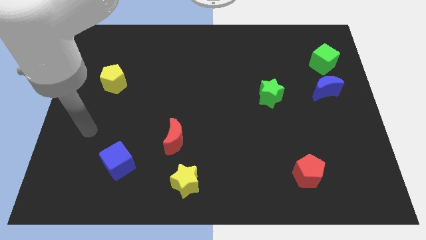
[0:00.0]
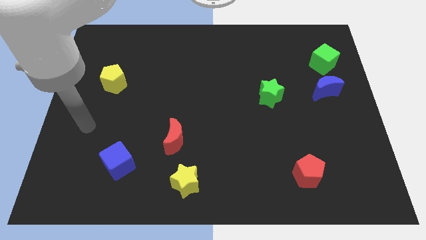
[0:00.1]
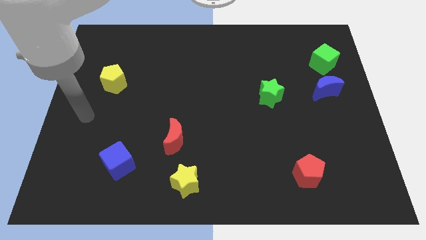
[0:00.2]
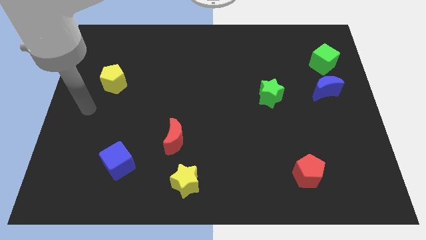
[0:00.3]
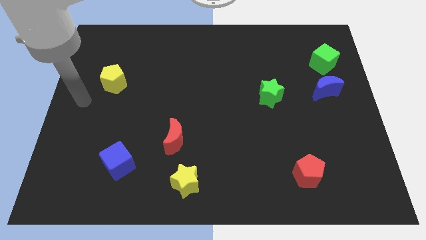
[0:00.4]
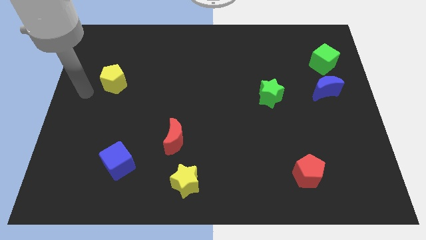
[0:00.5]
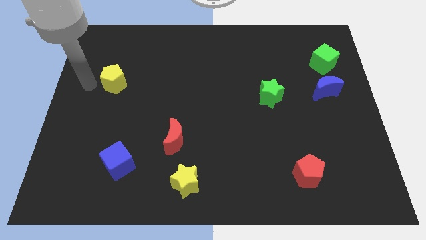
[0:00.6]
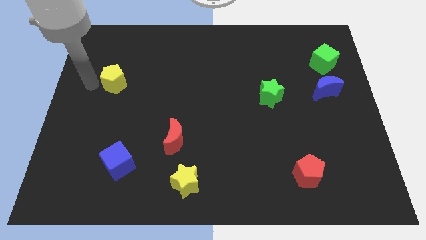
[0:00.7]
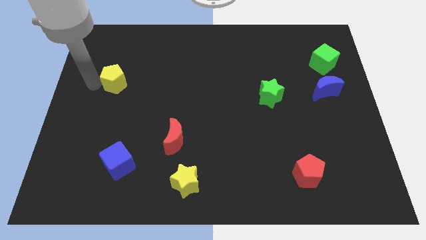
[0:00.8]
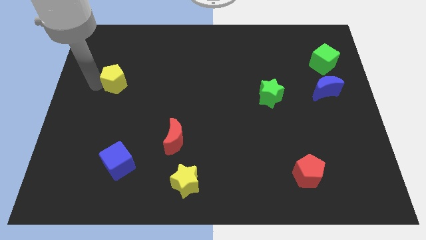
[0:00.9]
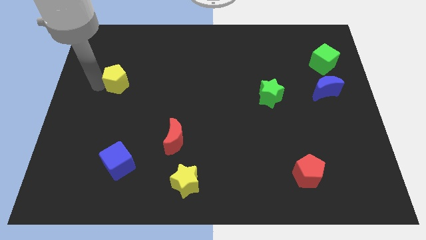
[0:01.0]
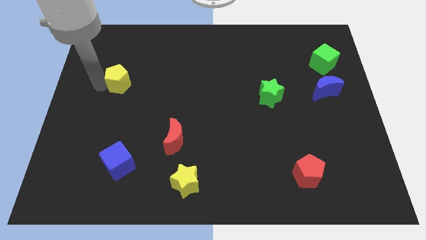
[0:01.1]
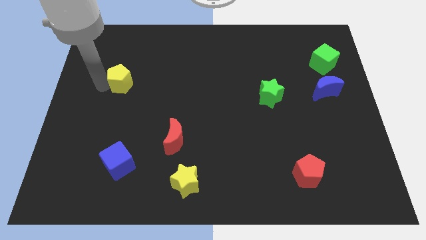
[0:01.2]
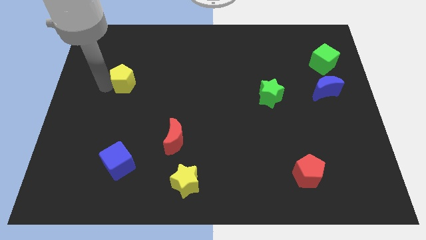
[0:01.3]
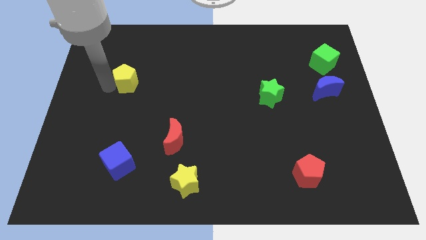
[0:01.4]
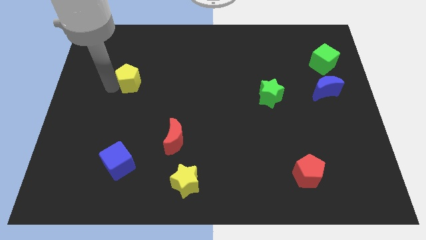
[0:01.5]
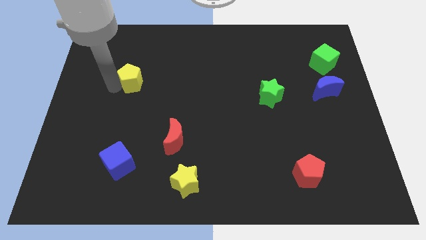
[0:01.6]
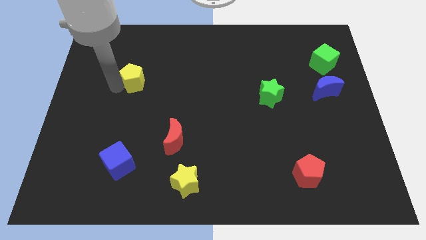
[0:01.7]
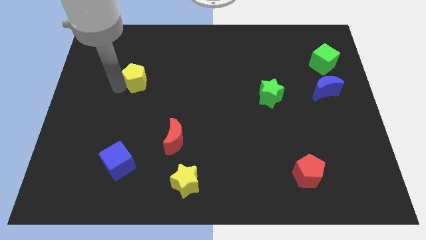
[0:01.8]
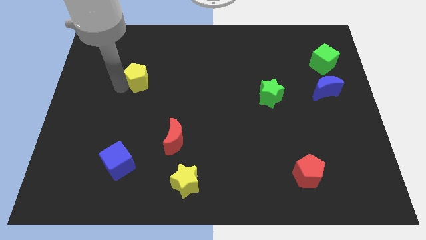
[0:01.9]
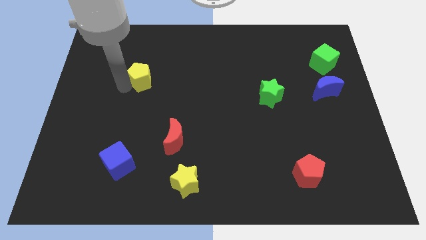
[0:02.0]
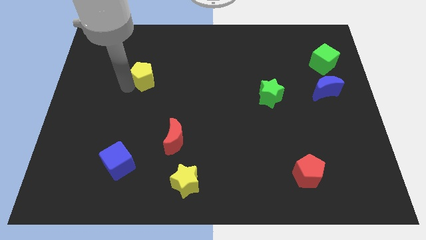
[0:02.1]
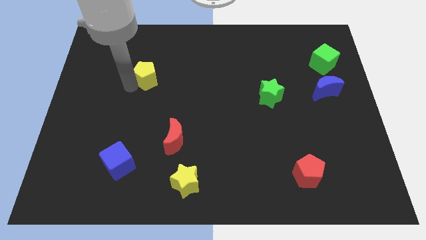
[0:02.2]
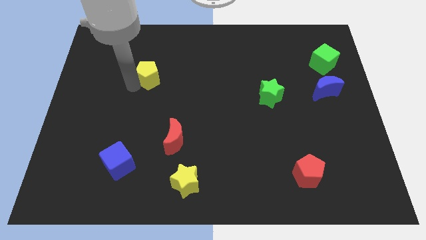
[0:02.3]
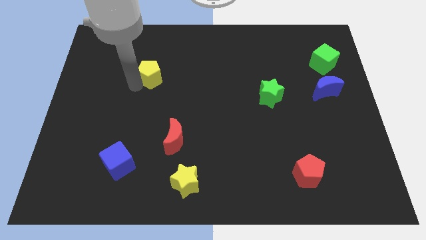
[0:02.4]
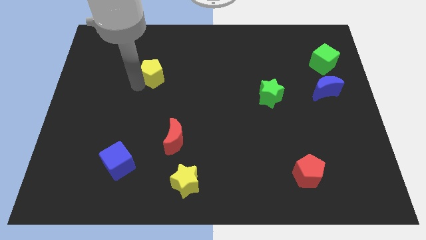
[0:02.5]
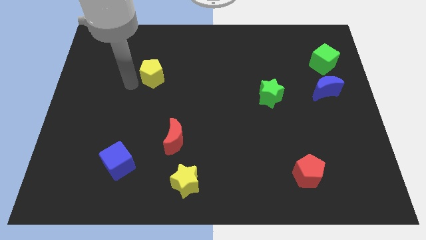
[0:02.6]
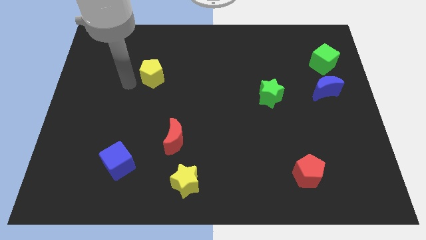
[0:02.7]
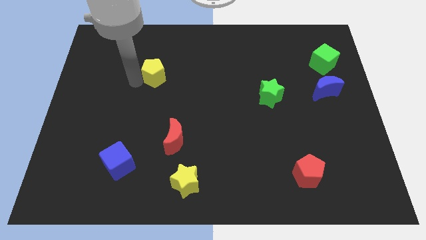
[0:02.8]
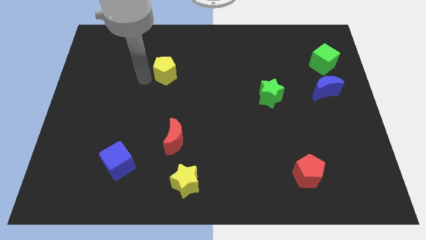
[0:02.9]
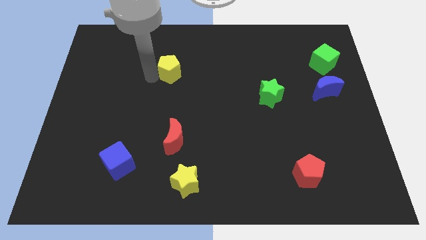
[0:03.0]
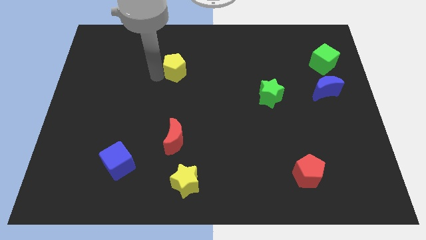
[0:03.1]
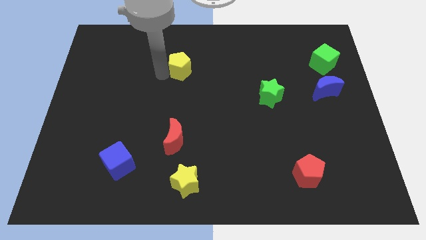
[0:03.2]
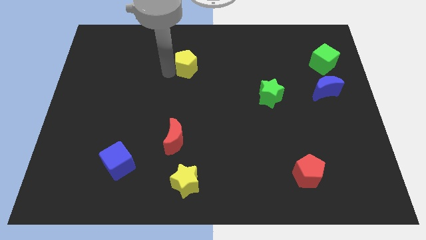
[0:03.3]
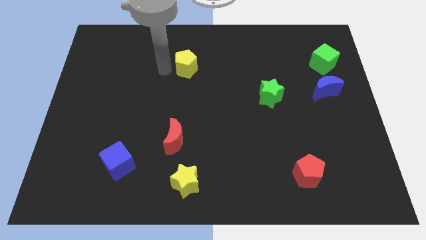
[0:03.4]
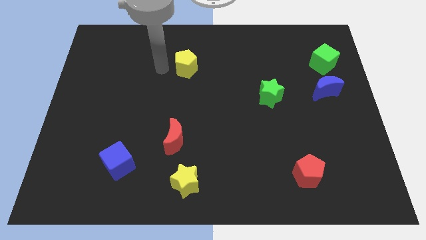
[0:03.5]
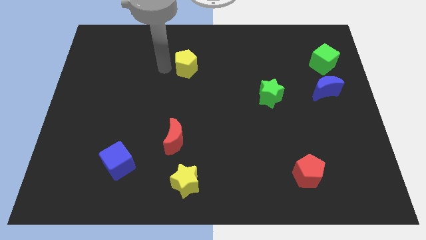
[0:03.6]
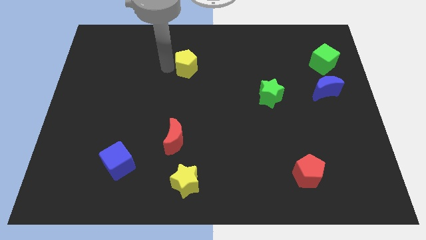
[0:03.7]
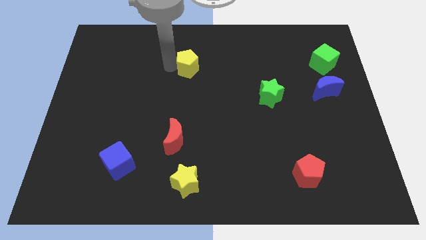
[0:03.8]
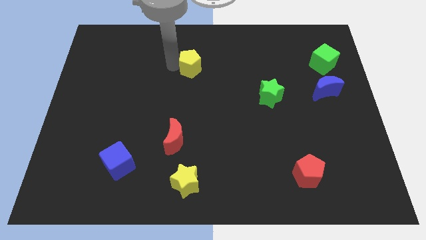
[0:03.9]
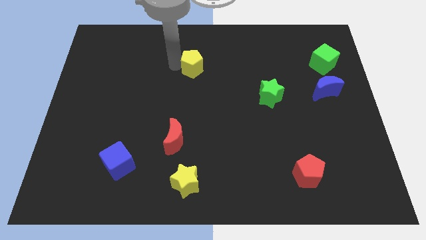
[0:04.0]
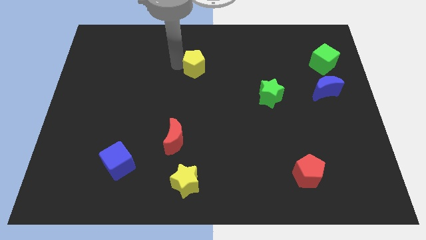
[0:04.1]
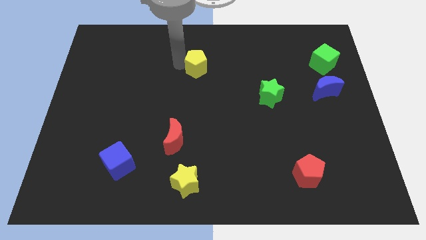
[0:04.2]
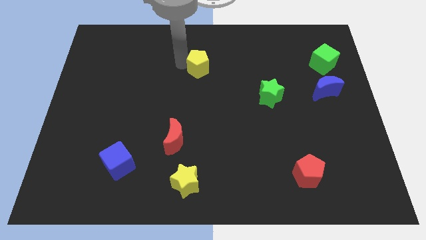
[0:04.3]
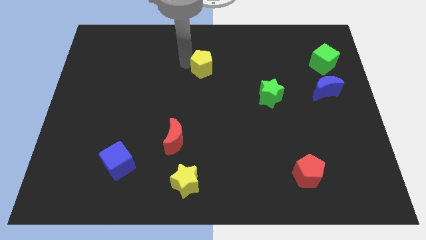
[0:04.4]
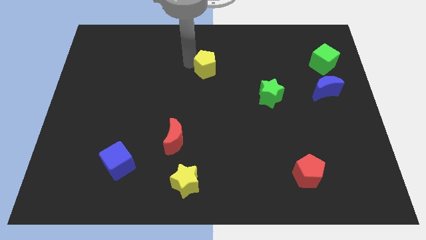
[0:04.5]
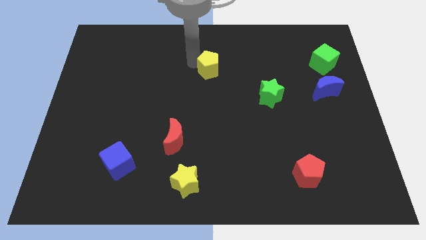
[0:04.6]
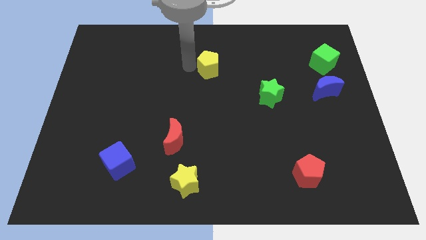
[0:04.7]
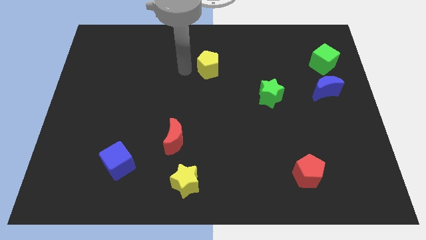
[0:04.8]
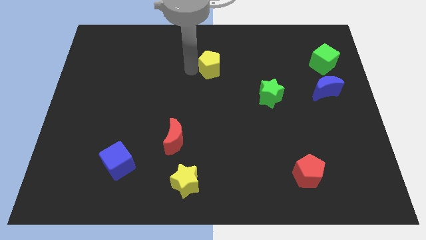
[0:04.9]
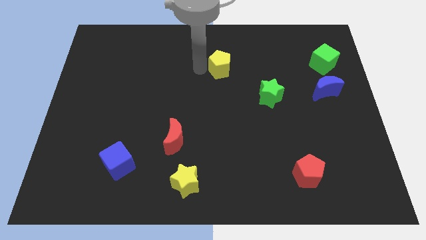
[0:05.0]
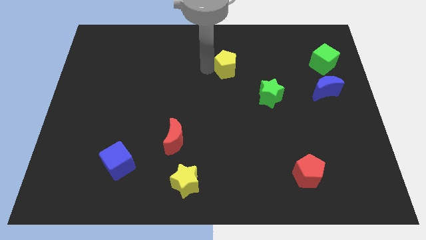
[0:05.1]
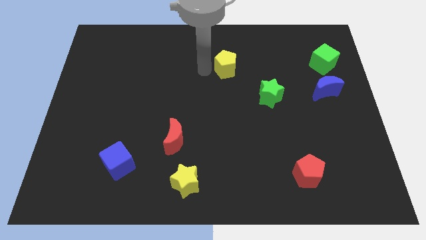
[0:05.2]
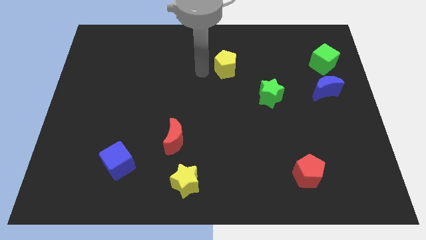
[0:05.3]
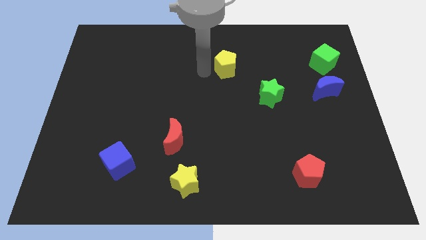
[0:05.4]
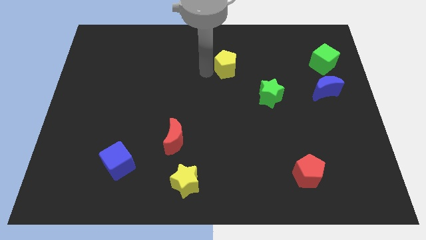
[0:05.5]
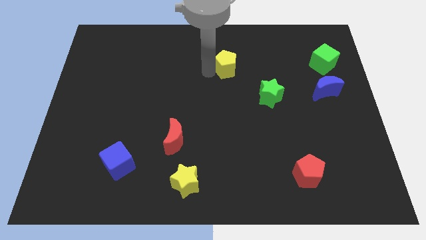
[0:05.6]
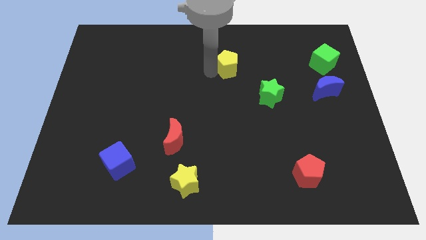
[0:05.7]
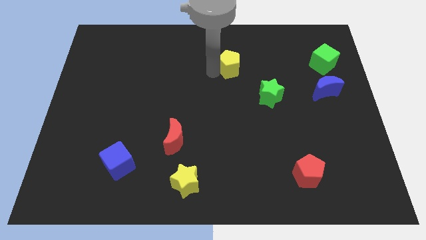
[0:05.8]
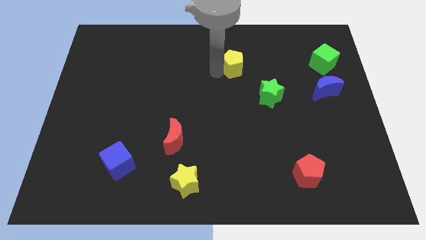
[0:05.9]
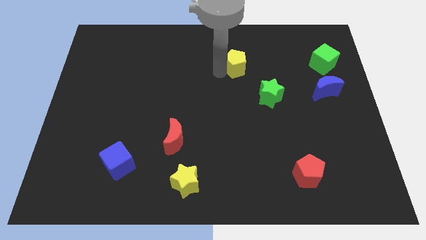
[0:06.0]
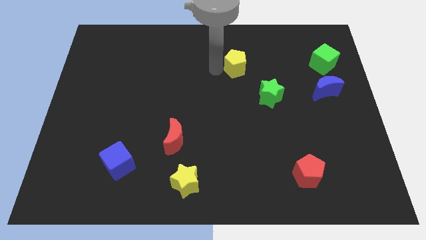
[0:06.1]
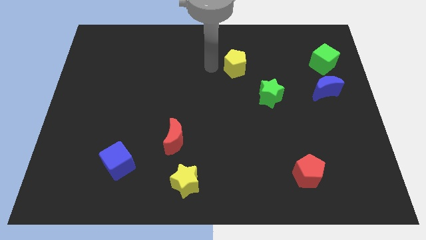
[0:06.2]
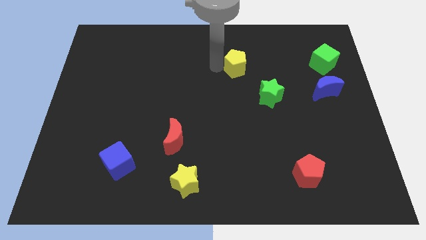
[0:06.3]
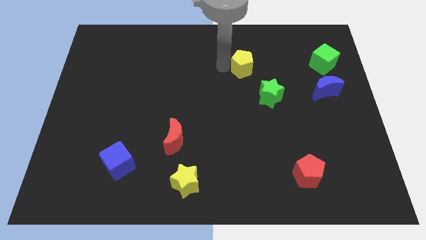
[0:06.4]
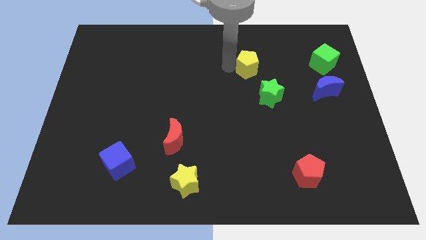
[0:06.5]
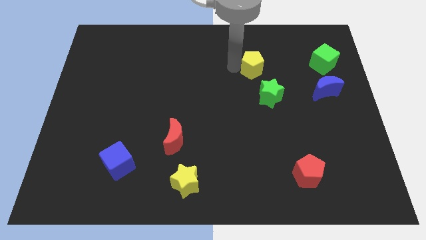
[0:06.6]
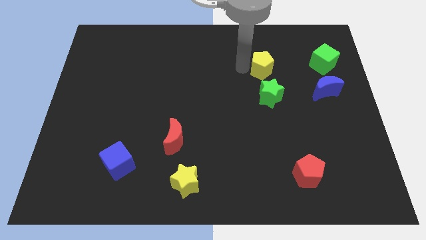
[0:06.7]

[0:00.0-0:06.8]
slide the yellow pentagon left of the green cube

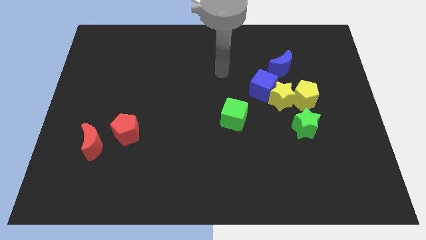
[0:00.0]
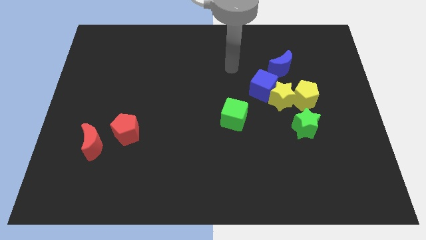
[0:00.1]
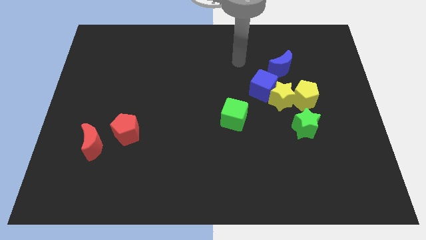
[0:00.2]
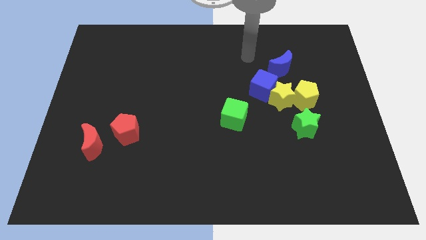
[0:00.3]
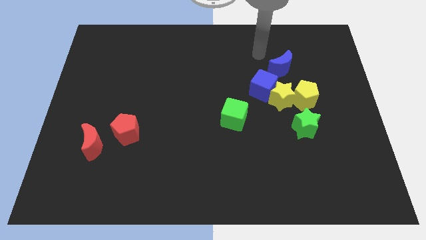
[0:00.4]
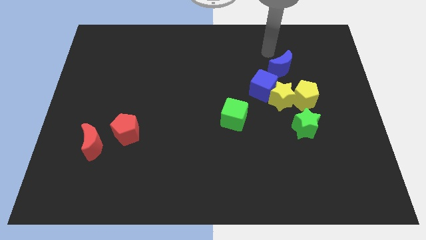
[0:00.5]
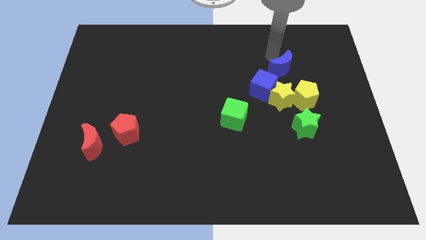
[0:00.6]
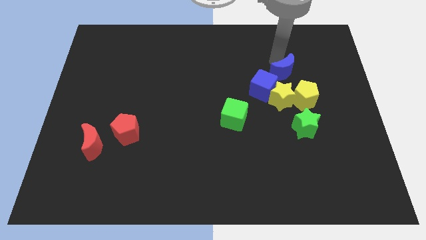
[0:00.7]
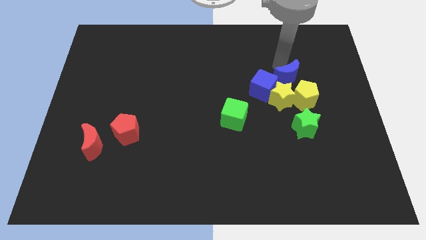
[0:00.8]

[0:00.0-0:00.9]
push the blue moon to the top of the green star
